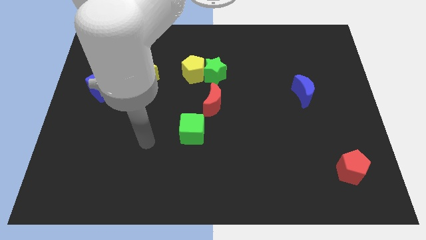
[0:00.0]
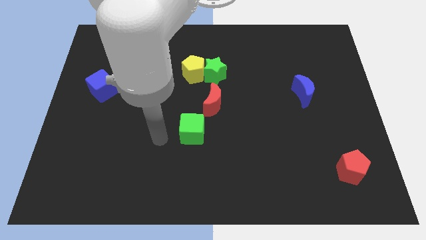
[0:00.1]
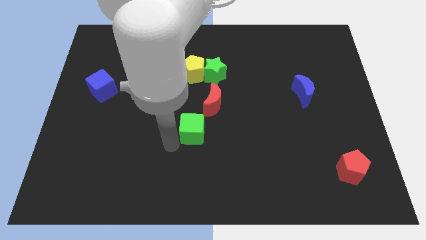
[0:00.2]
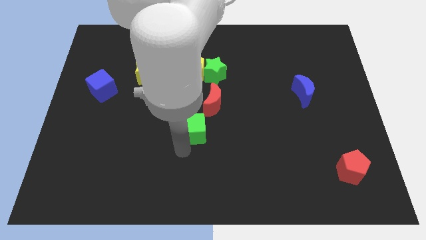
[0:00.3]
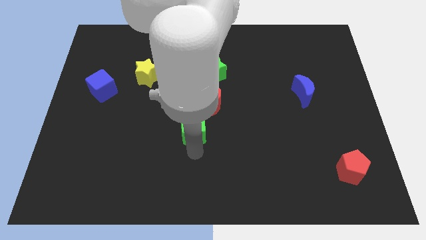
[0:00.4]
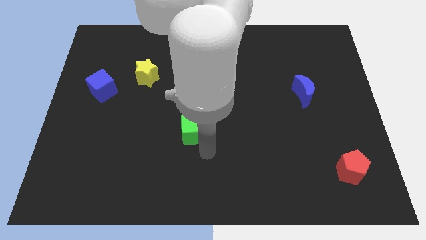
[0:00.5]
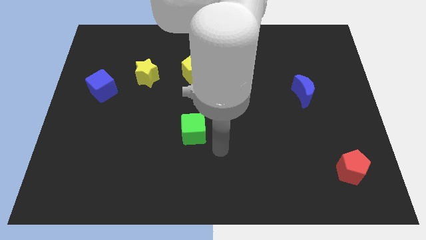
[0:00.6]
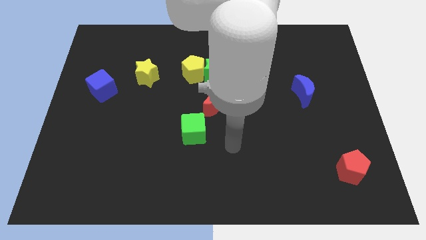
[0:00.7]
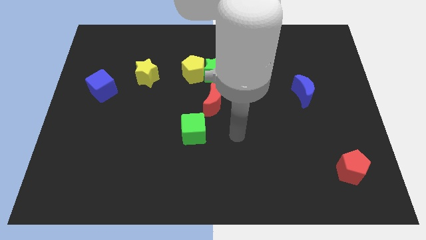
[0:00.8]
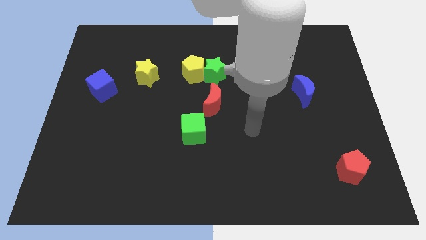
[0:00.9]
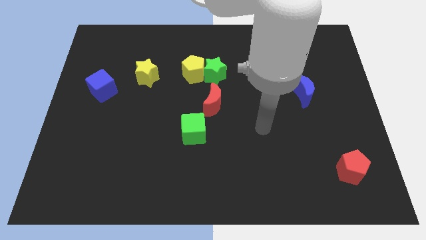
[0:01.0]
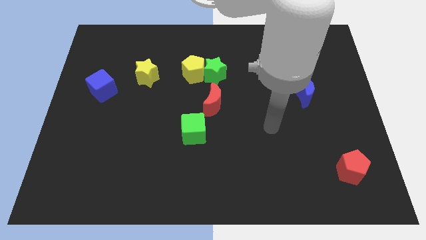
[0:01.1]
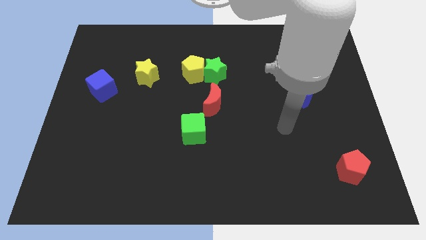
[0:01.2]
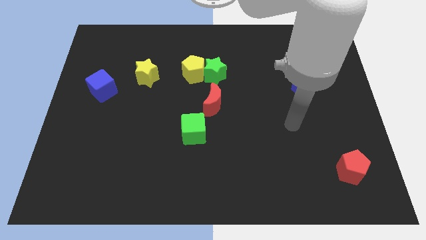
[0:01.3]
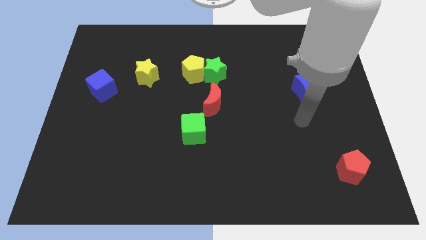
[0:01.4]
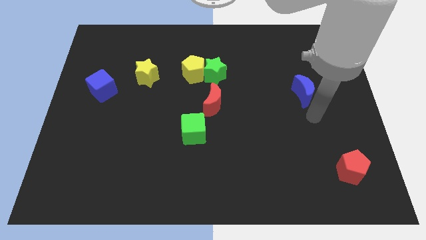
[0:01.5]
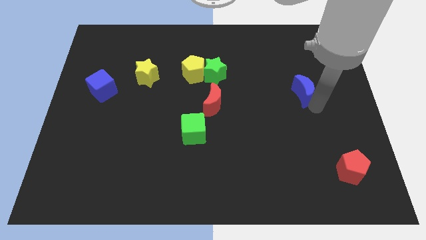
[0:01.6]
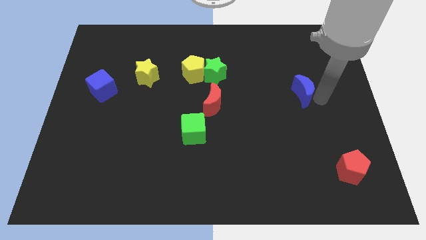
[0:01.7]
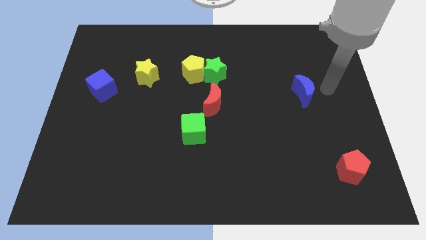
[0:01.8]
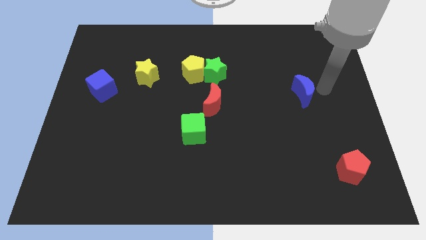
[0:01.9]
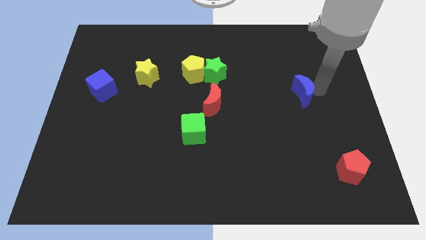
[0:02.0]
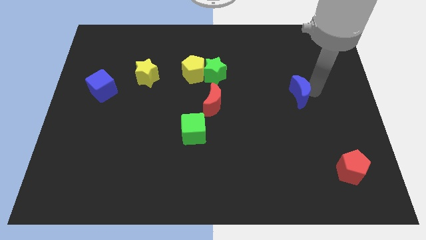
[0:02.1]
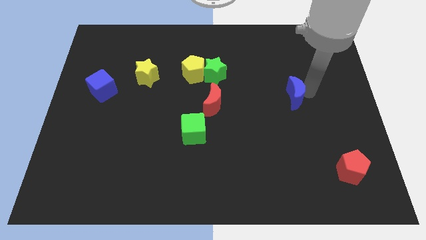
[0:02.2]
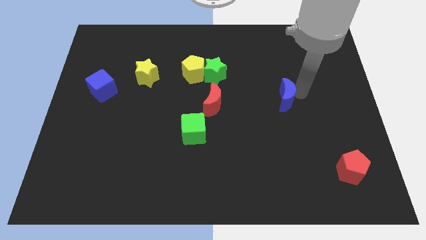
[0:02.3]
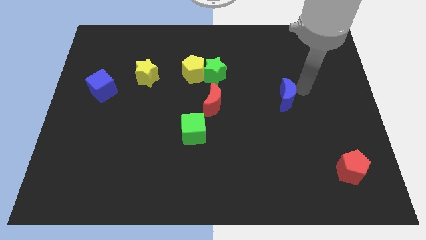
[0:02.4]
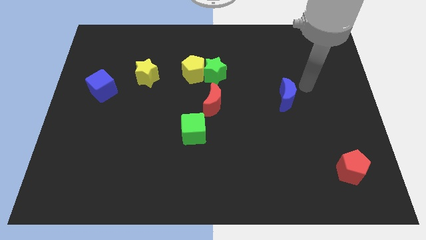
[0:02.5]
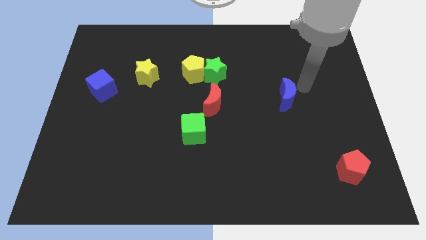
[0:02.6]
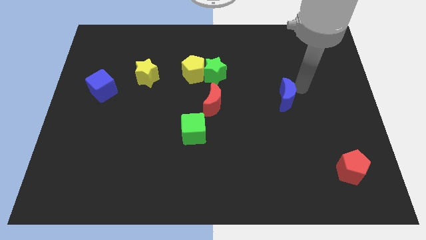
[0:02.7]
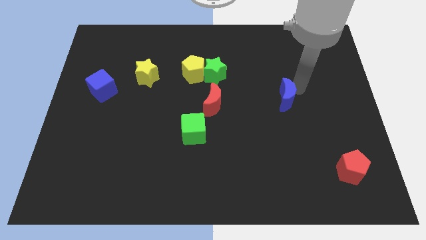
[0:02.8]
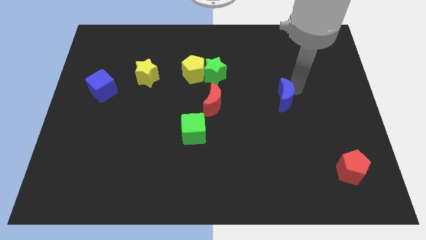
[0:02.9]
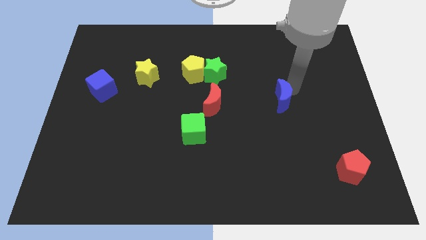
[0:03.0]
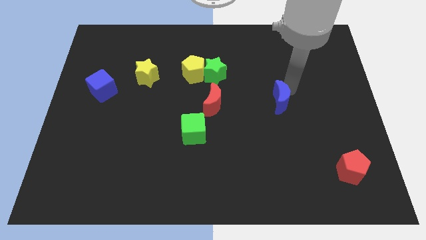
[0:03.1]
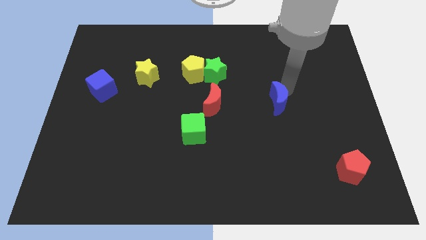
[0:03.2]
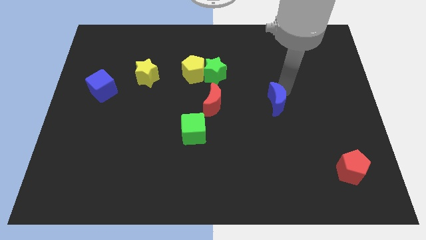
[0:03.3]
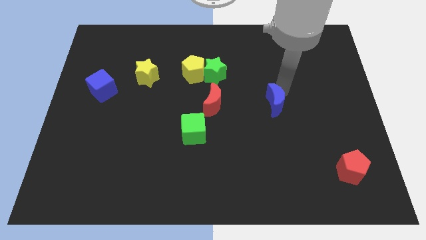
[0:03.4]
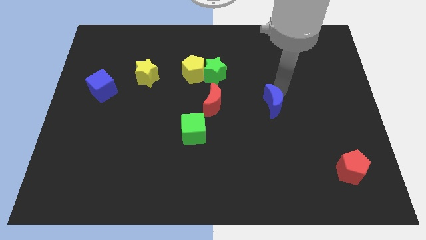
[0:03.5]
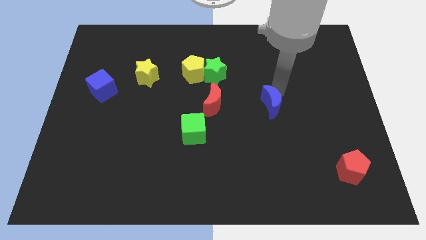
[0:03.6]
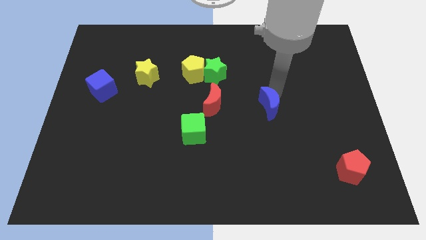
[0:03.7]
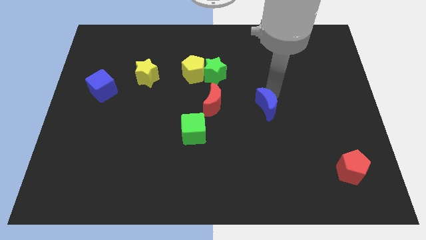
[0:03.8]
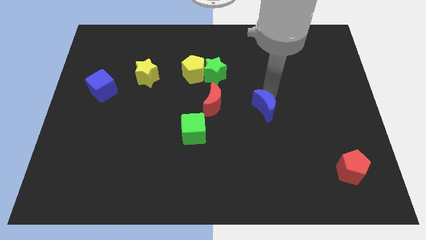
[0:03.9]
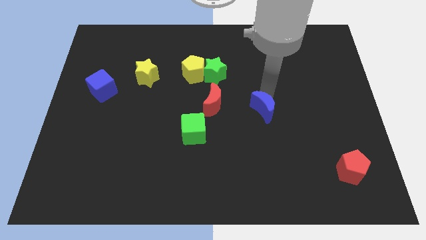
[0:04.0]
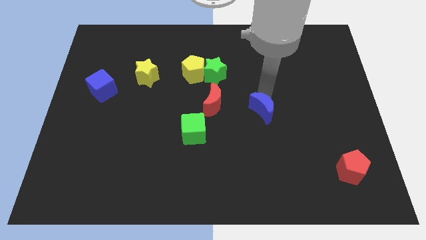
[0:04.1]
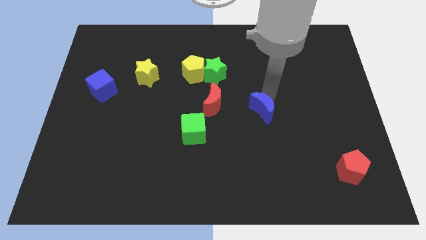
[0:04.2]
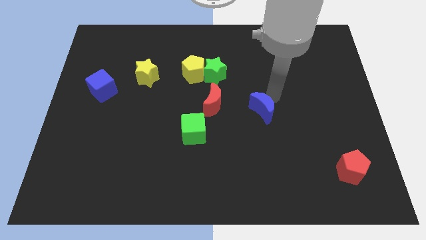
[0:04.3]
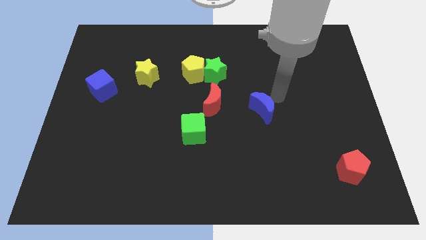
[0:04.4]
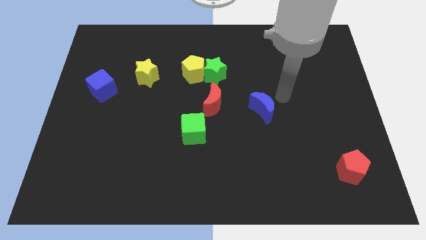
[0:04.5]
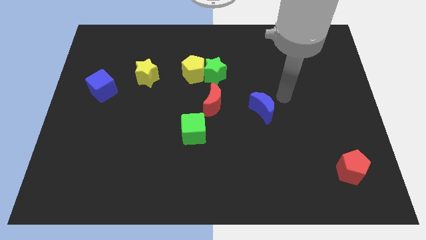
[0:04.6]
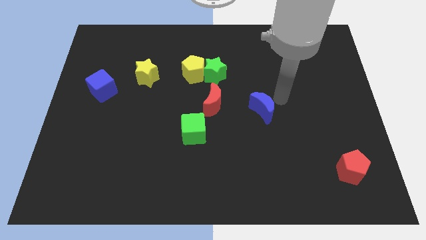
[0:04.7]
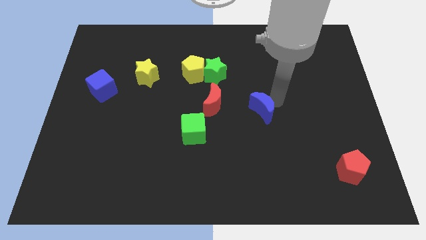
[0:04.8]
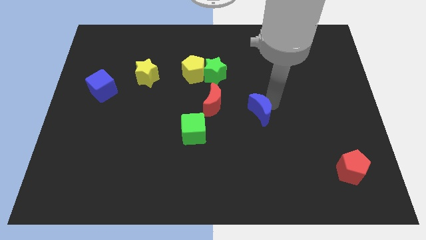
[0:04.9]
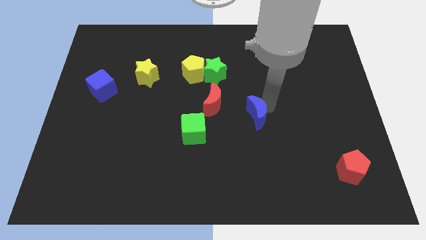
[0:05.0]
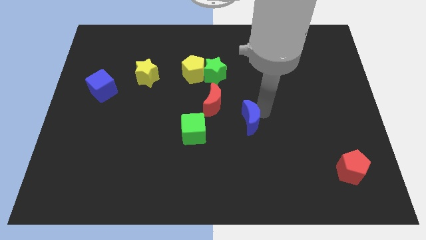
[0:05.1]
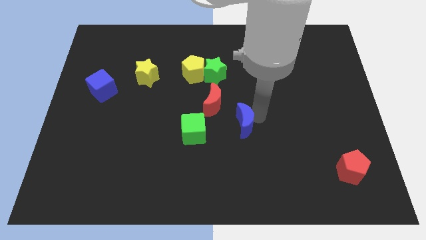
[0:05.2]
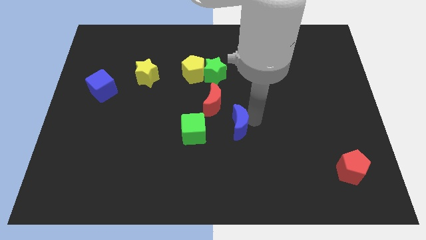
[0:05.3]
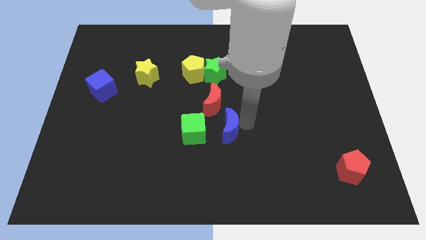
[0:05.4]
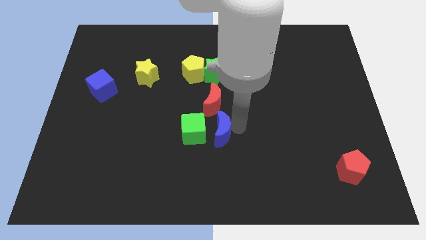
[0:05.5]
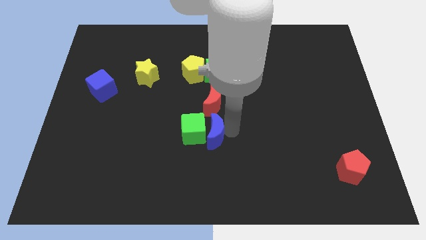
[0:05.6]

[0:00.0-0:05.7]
put the blue moon towards the green cube

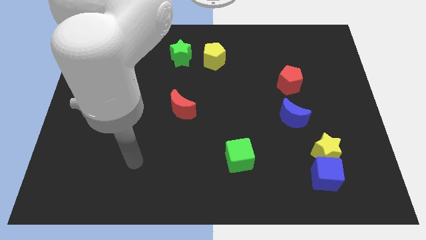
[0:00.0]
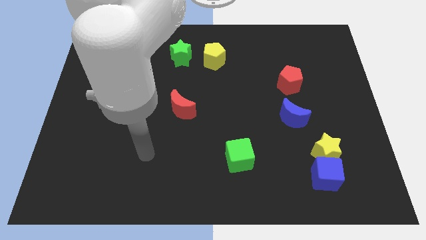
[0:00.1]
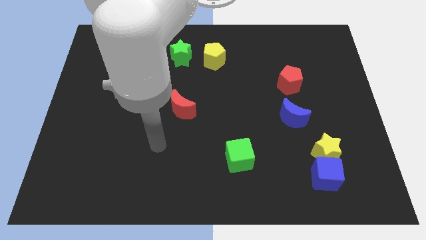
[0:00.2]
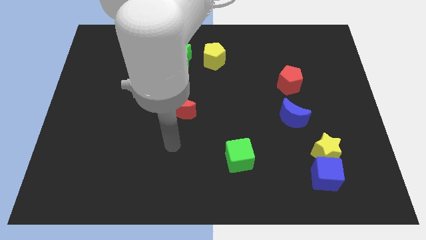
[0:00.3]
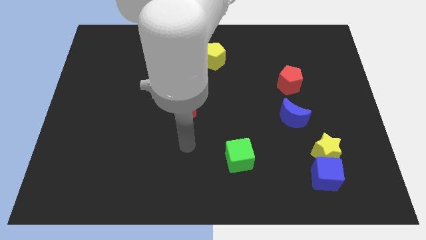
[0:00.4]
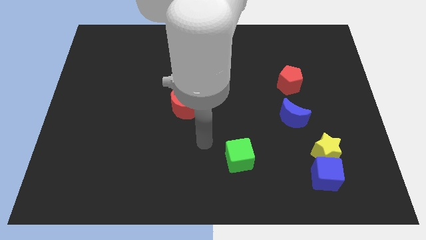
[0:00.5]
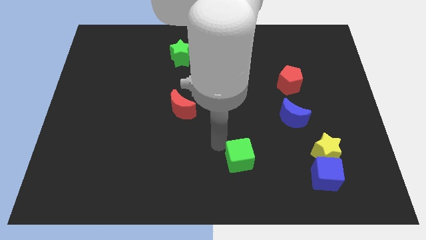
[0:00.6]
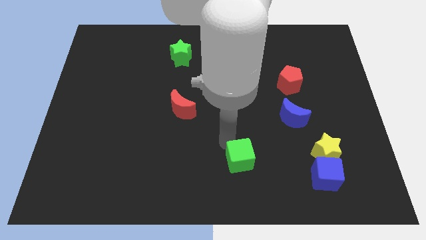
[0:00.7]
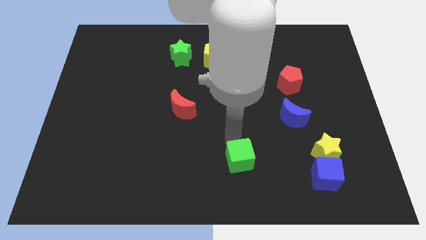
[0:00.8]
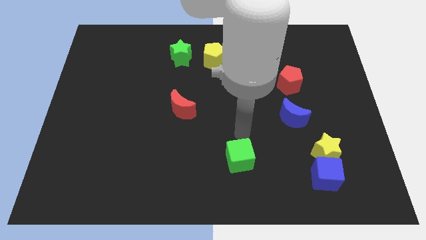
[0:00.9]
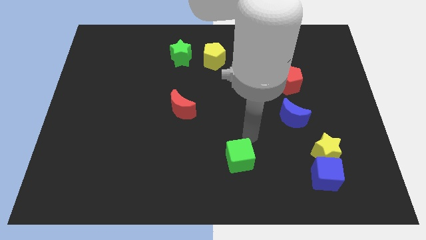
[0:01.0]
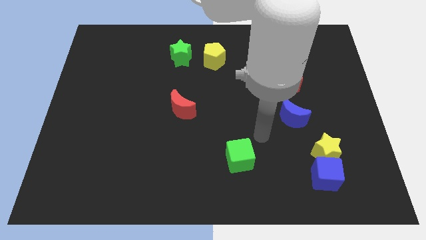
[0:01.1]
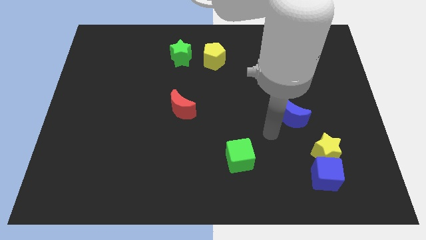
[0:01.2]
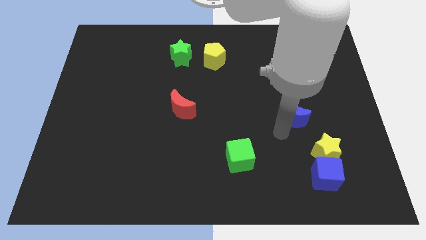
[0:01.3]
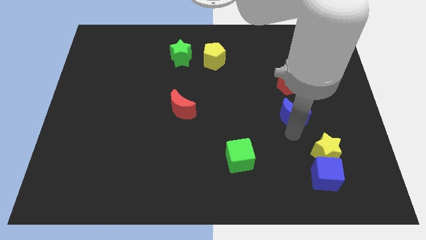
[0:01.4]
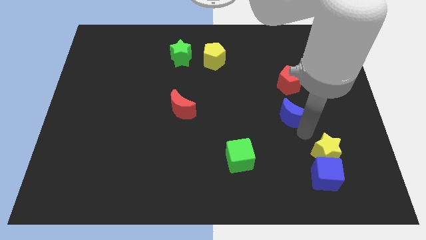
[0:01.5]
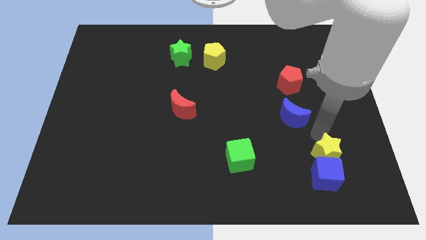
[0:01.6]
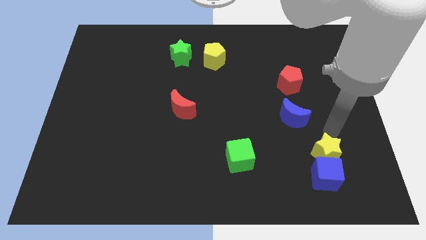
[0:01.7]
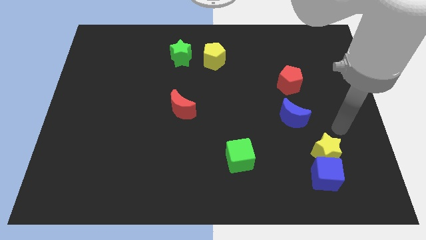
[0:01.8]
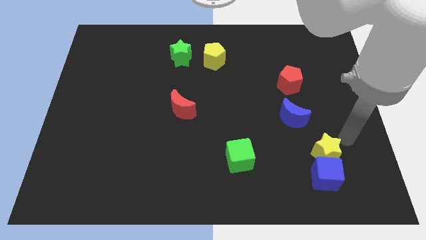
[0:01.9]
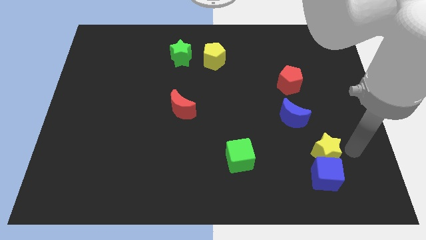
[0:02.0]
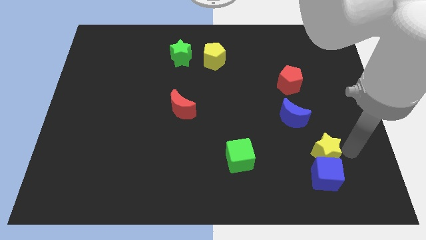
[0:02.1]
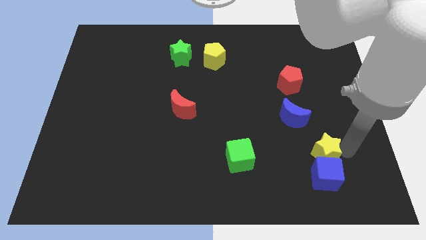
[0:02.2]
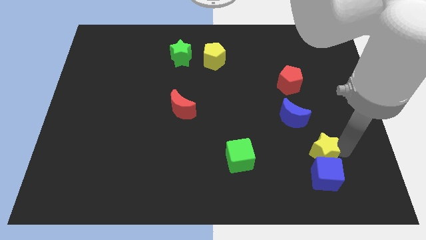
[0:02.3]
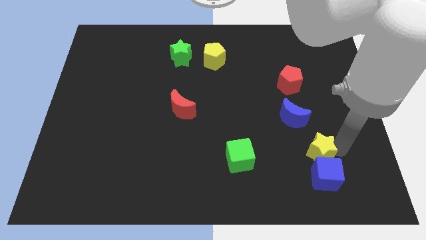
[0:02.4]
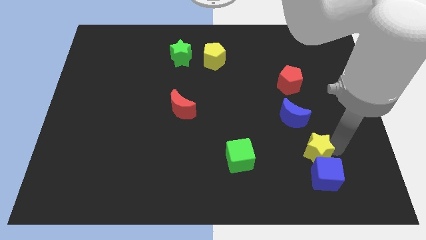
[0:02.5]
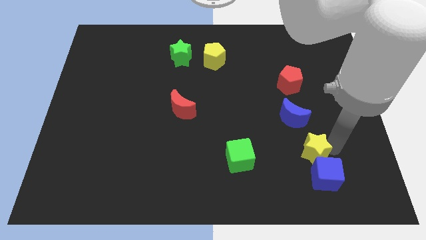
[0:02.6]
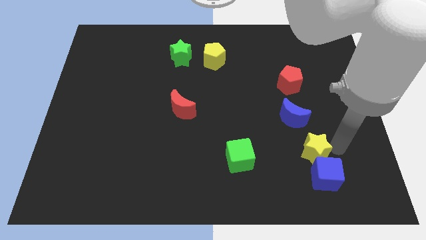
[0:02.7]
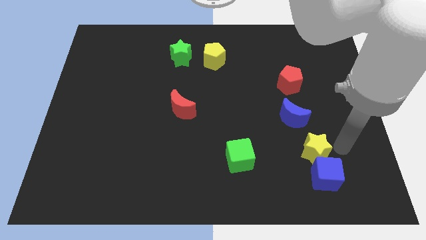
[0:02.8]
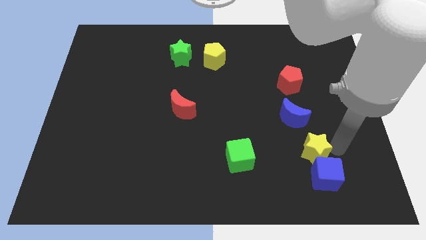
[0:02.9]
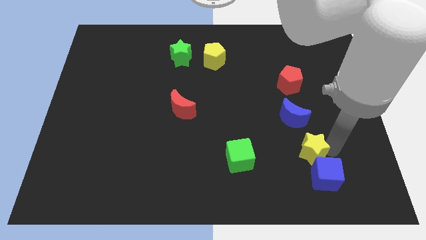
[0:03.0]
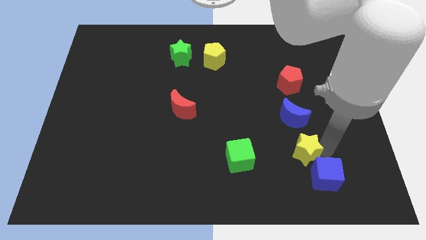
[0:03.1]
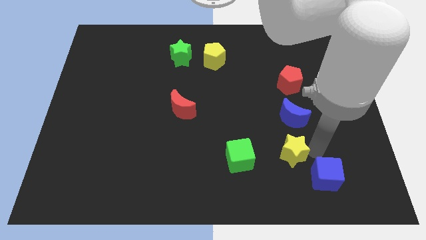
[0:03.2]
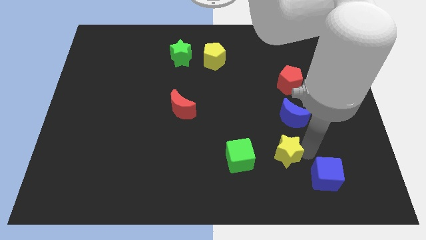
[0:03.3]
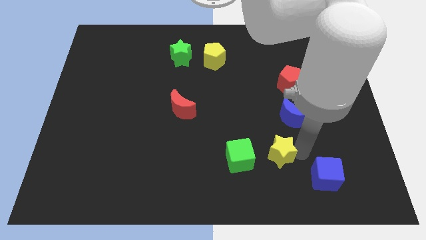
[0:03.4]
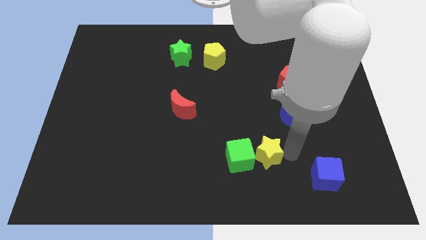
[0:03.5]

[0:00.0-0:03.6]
move the yellow star towards the green cube
